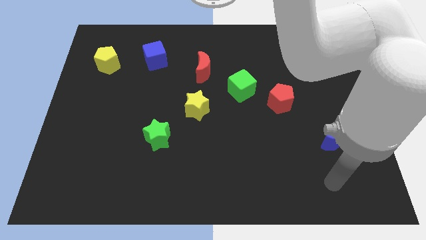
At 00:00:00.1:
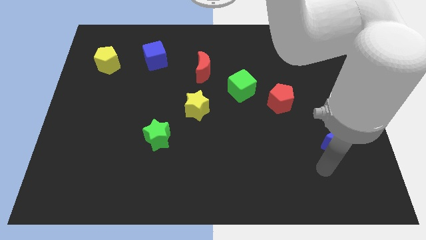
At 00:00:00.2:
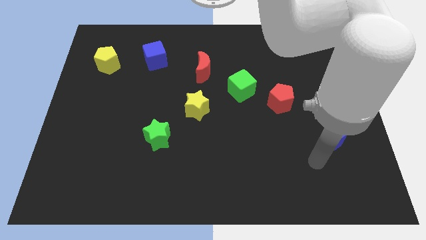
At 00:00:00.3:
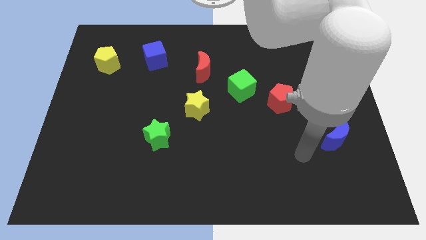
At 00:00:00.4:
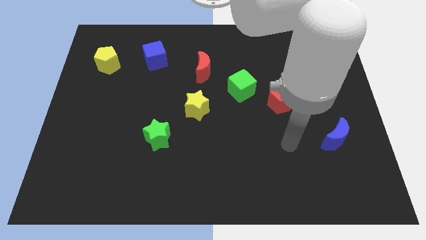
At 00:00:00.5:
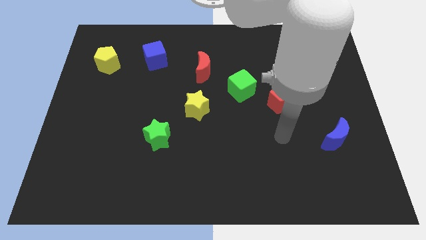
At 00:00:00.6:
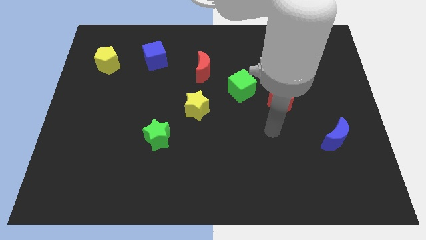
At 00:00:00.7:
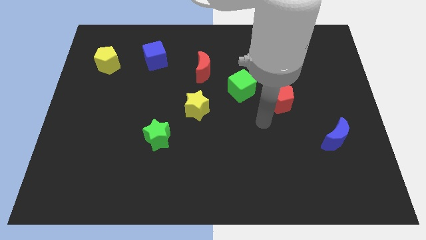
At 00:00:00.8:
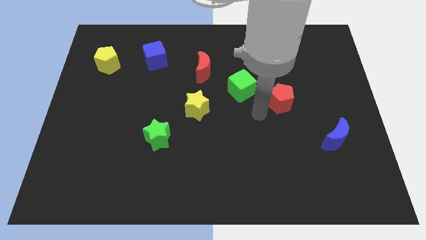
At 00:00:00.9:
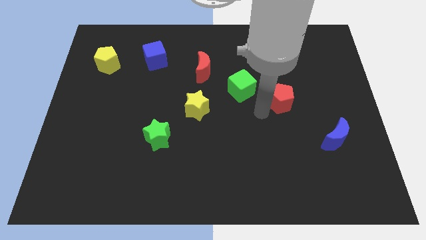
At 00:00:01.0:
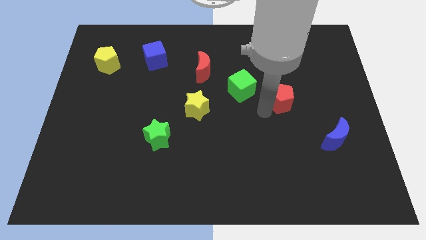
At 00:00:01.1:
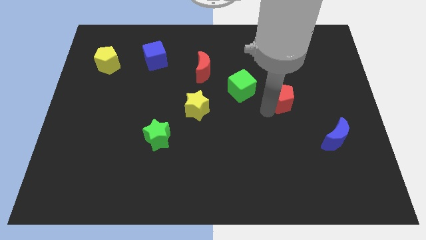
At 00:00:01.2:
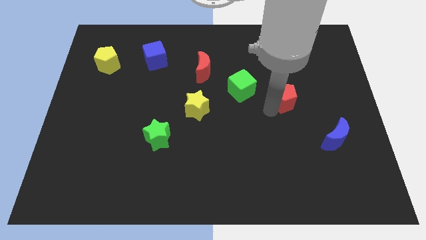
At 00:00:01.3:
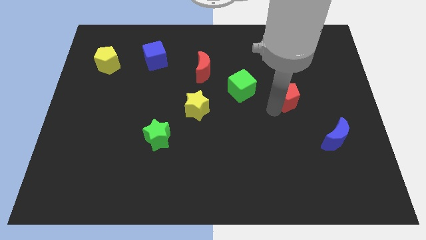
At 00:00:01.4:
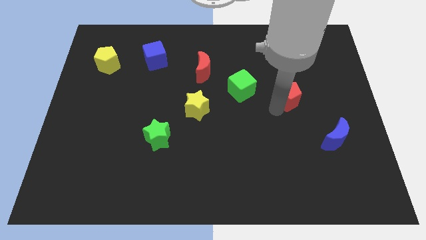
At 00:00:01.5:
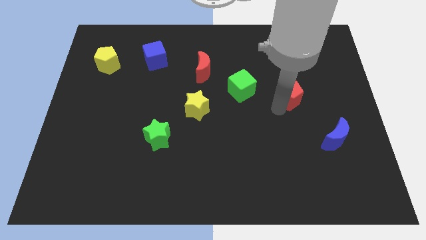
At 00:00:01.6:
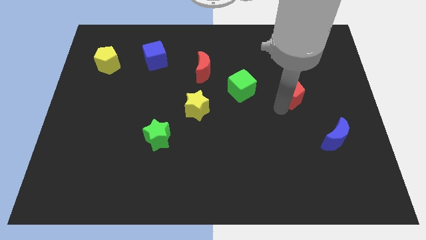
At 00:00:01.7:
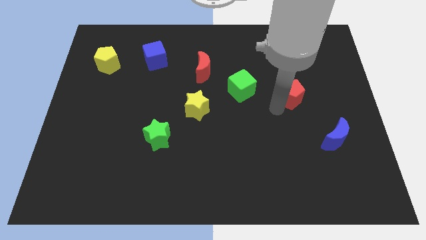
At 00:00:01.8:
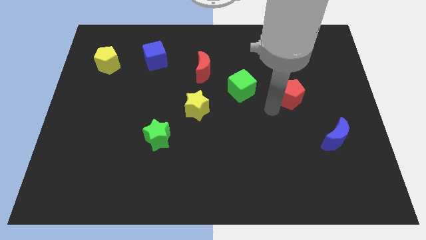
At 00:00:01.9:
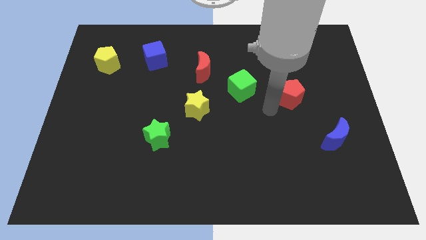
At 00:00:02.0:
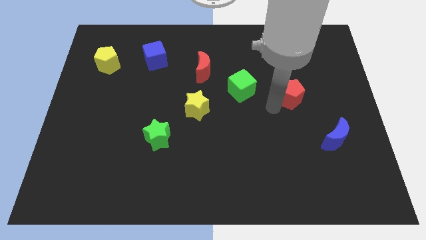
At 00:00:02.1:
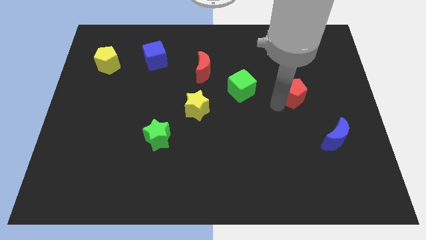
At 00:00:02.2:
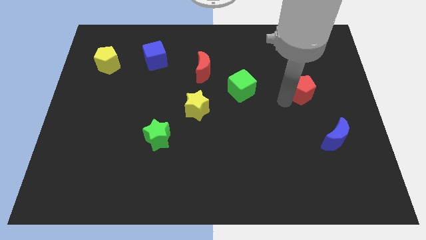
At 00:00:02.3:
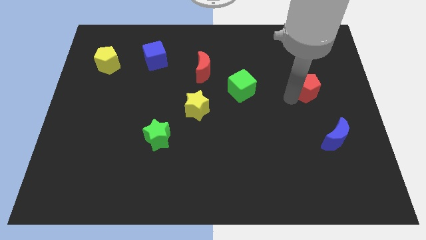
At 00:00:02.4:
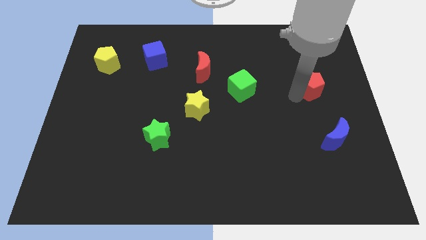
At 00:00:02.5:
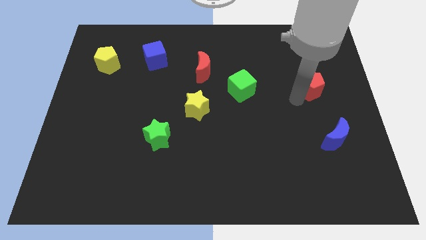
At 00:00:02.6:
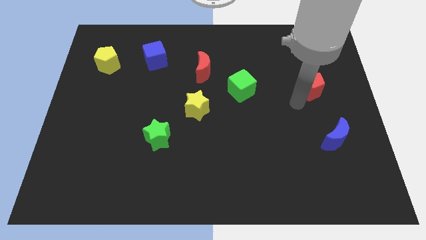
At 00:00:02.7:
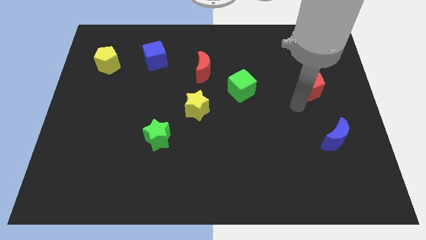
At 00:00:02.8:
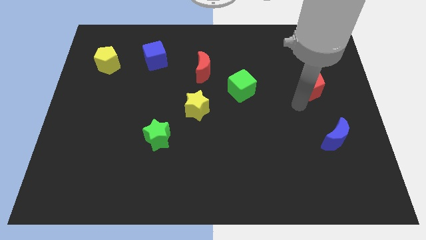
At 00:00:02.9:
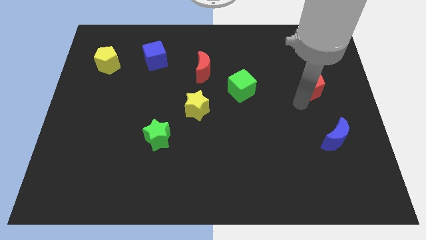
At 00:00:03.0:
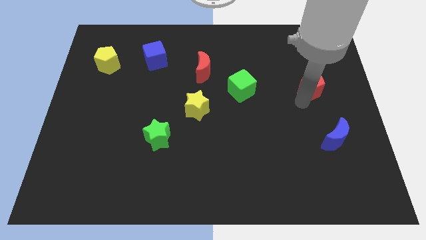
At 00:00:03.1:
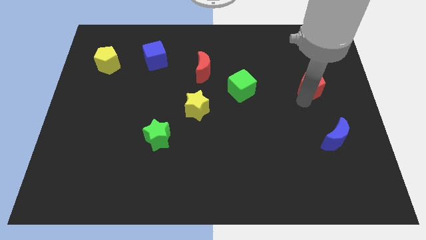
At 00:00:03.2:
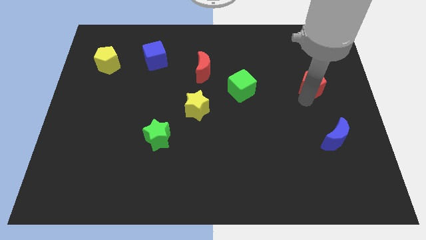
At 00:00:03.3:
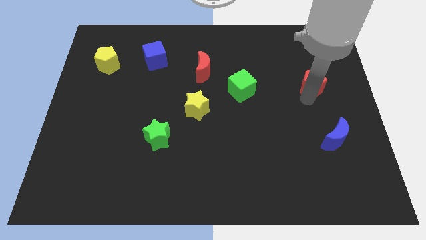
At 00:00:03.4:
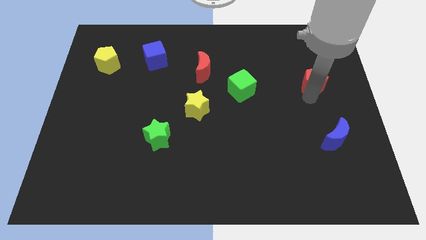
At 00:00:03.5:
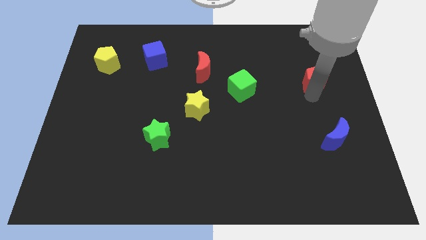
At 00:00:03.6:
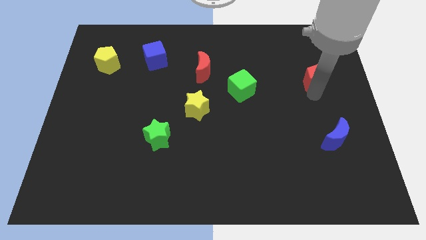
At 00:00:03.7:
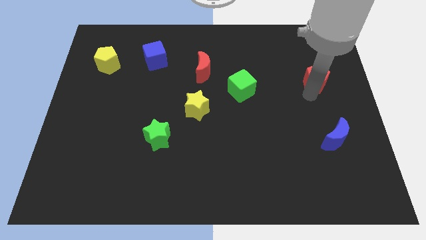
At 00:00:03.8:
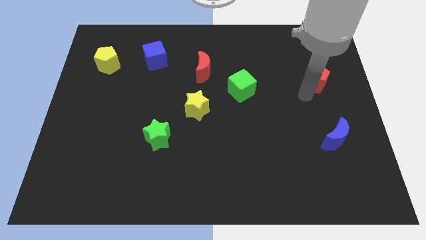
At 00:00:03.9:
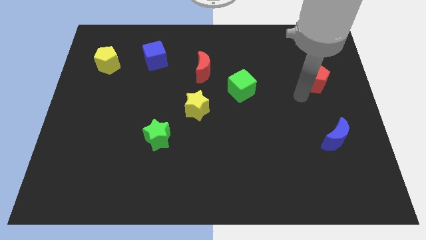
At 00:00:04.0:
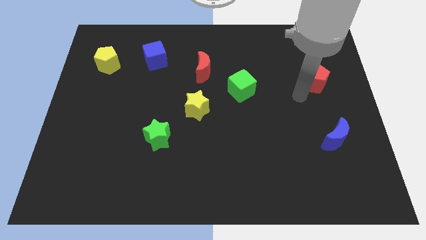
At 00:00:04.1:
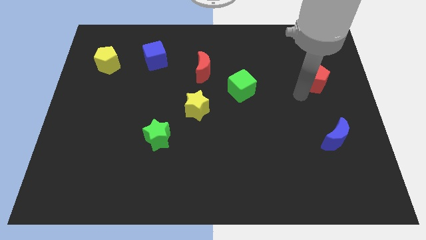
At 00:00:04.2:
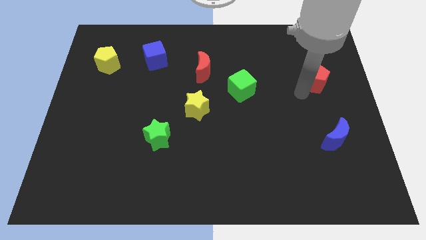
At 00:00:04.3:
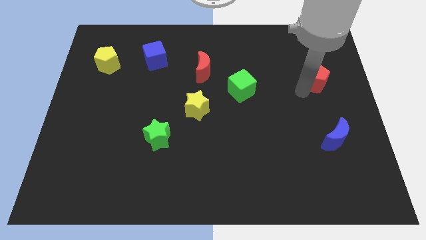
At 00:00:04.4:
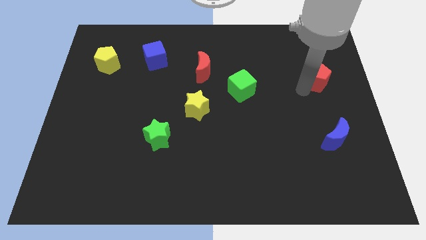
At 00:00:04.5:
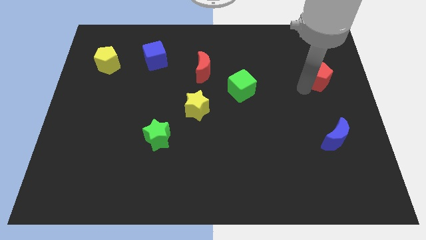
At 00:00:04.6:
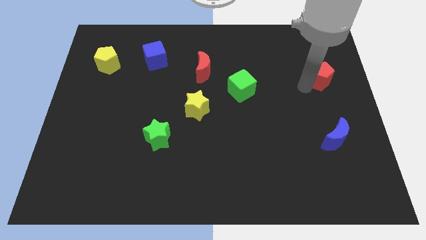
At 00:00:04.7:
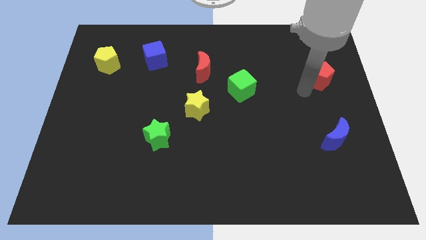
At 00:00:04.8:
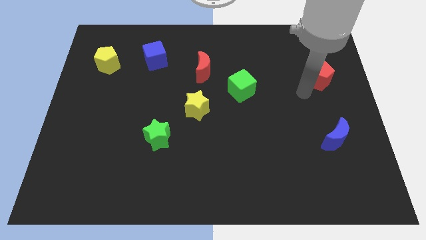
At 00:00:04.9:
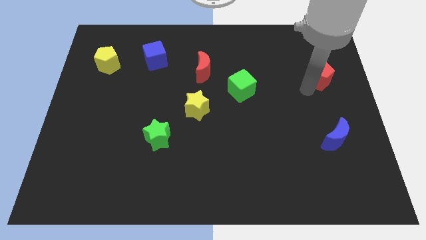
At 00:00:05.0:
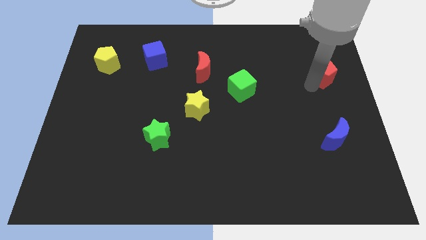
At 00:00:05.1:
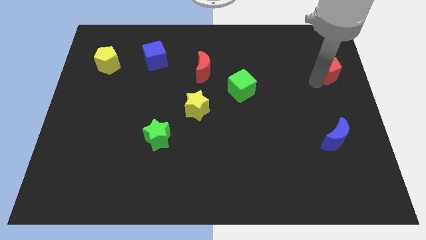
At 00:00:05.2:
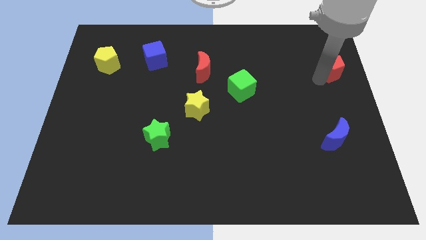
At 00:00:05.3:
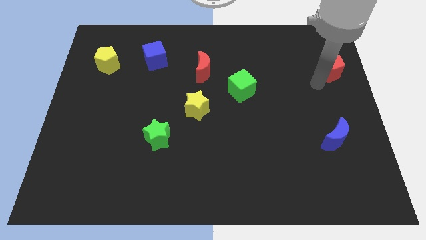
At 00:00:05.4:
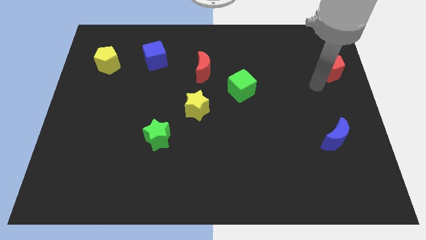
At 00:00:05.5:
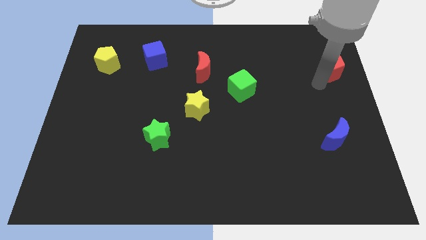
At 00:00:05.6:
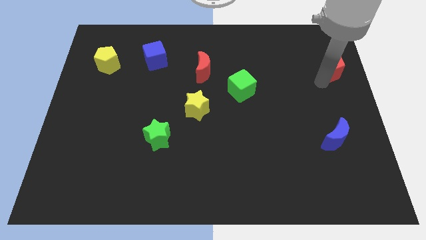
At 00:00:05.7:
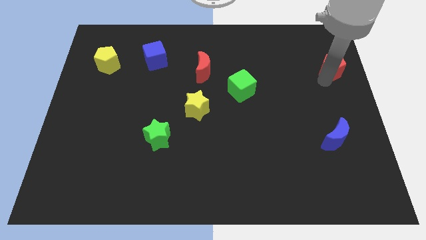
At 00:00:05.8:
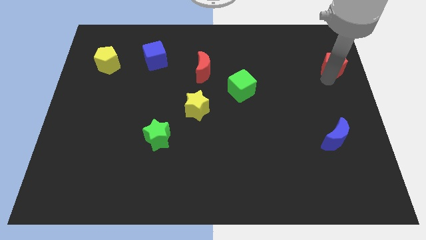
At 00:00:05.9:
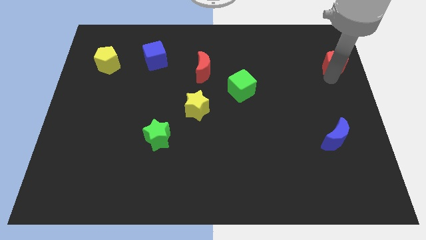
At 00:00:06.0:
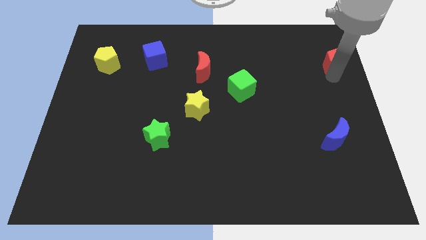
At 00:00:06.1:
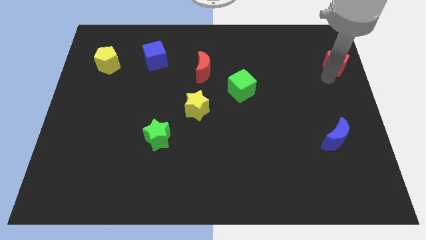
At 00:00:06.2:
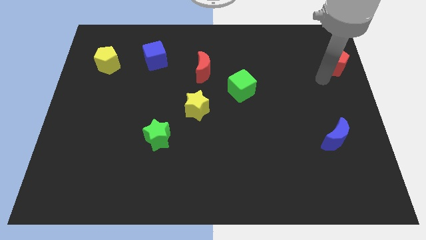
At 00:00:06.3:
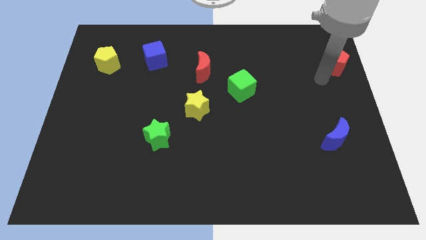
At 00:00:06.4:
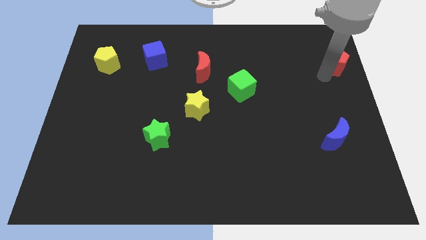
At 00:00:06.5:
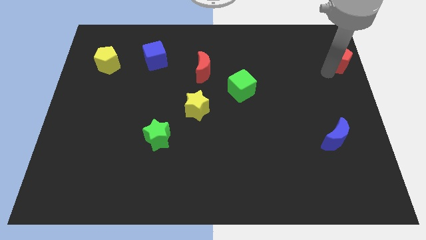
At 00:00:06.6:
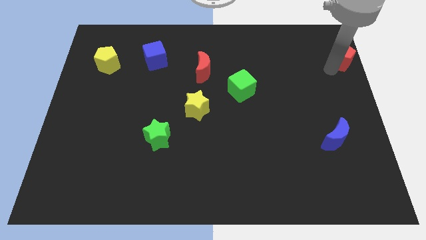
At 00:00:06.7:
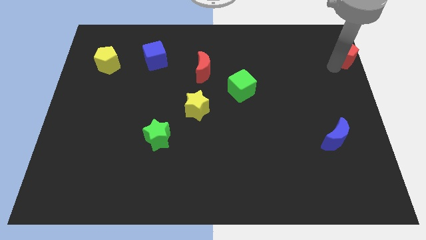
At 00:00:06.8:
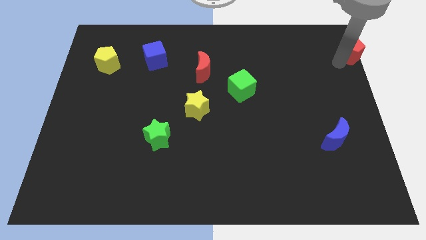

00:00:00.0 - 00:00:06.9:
slide the red pentagon to the upper right corner
